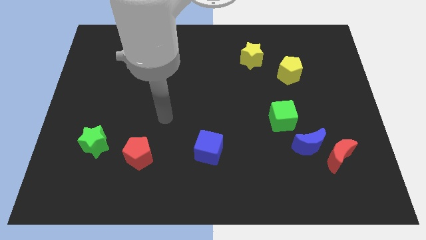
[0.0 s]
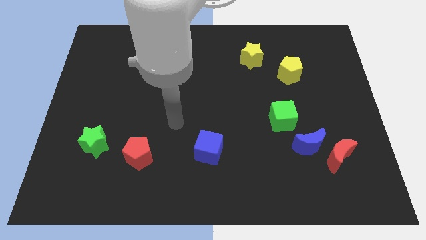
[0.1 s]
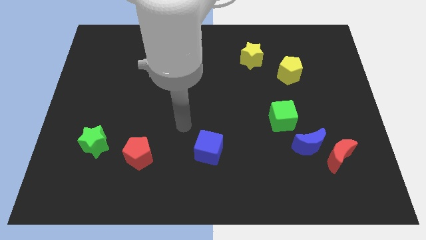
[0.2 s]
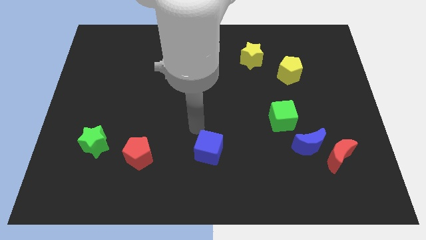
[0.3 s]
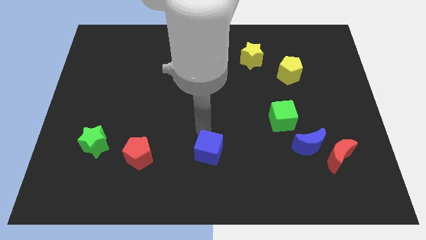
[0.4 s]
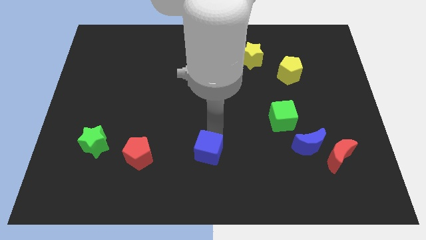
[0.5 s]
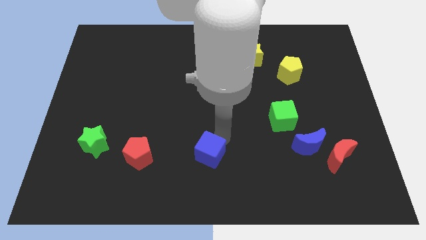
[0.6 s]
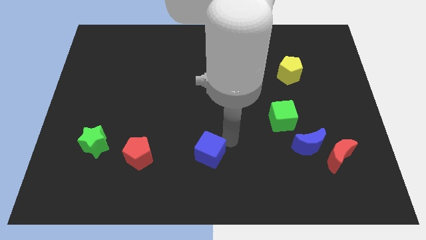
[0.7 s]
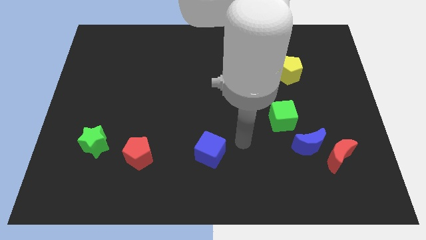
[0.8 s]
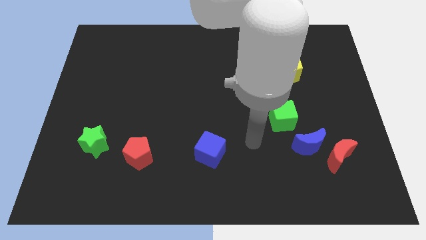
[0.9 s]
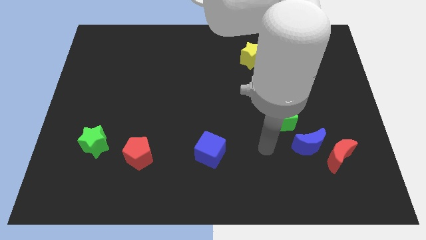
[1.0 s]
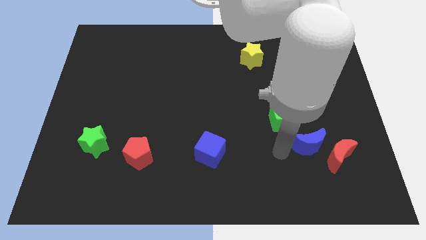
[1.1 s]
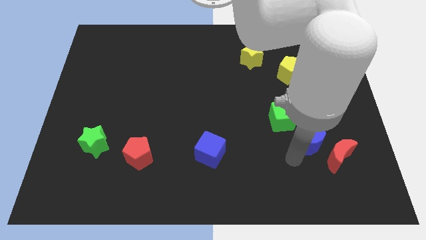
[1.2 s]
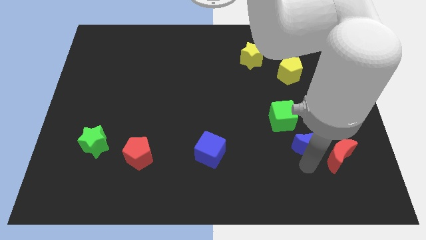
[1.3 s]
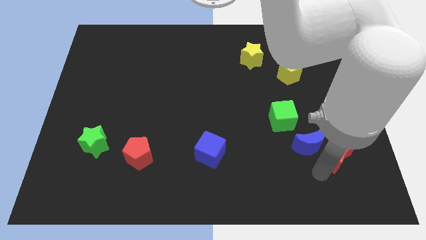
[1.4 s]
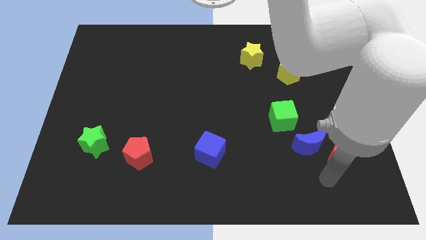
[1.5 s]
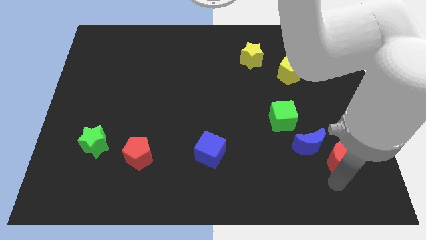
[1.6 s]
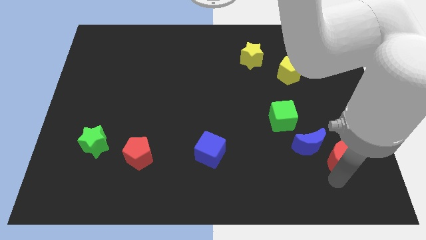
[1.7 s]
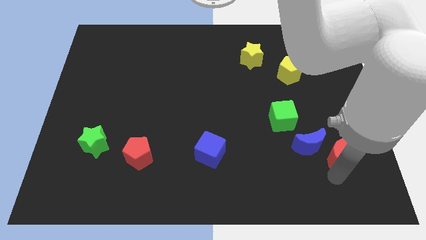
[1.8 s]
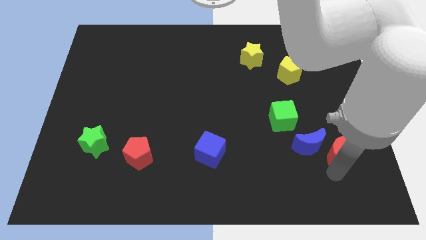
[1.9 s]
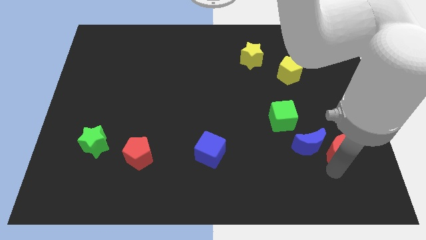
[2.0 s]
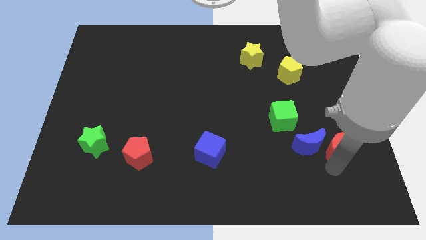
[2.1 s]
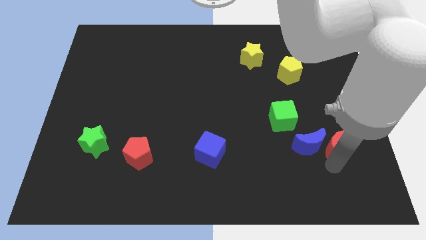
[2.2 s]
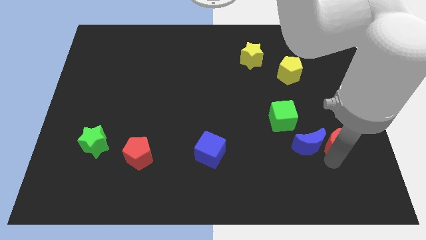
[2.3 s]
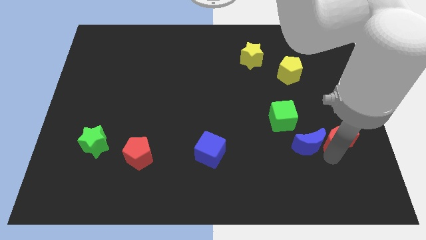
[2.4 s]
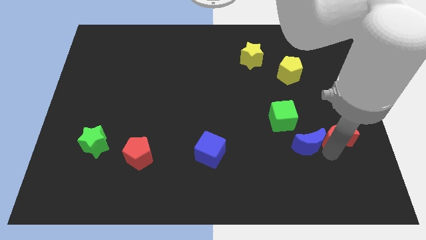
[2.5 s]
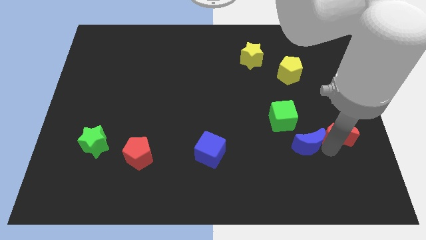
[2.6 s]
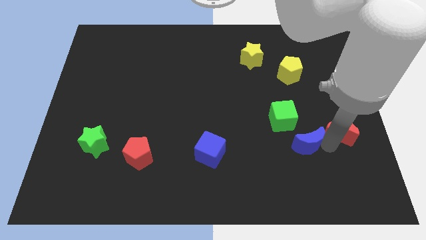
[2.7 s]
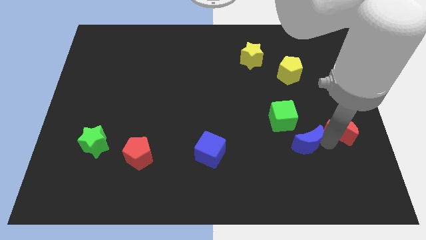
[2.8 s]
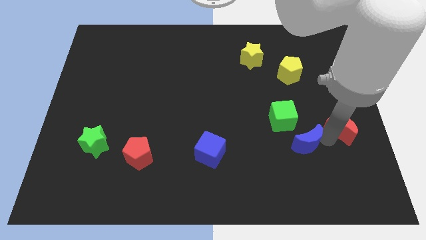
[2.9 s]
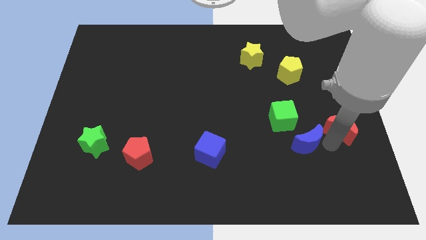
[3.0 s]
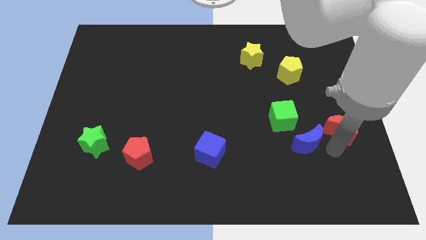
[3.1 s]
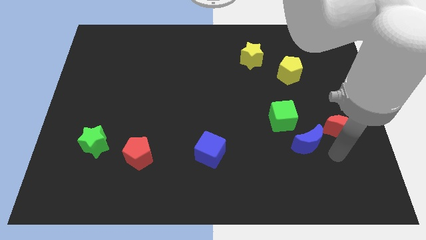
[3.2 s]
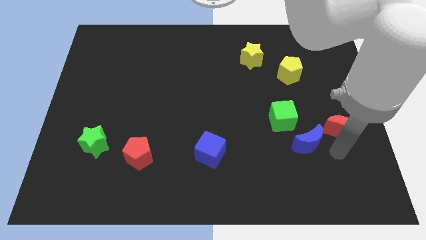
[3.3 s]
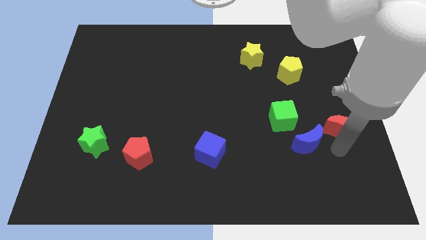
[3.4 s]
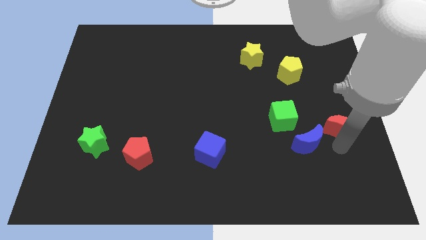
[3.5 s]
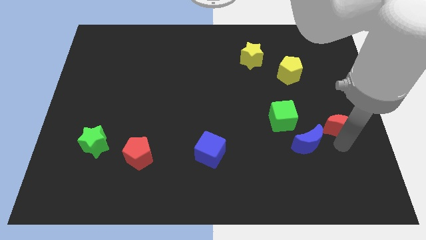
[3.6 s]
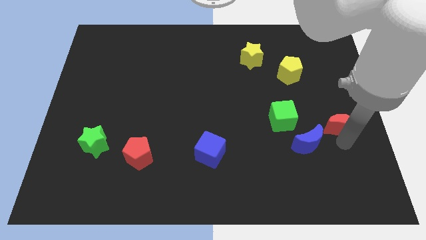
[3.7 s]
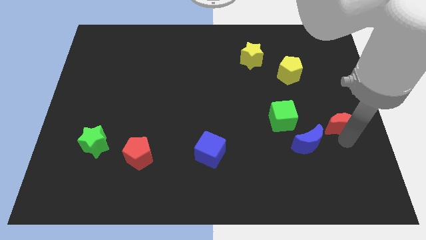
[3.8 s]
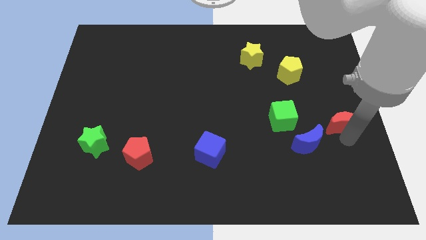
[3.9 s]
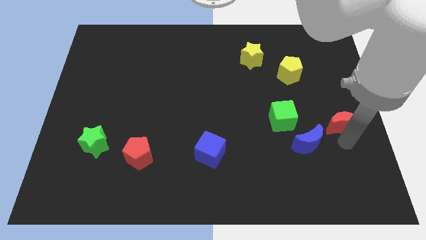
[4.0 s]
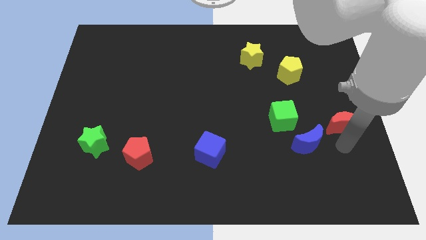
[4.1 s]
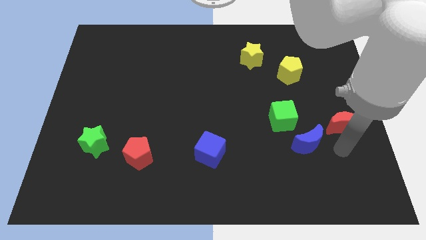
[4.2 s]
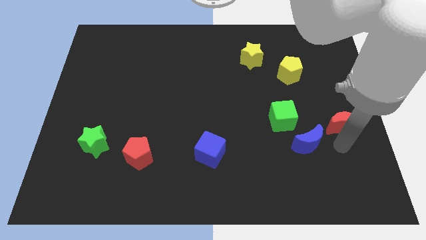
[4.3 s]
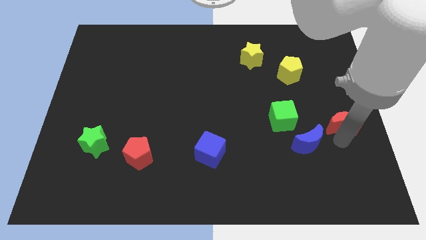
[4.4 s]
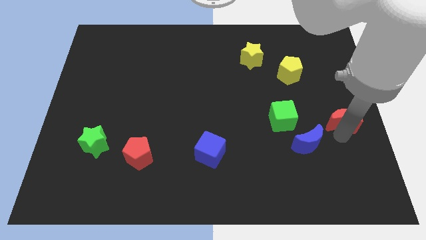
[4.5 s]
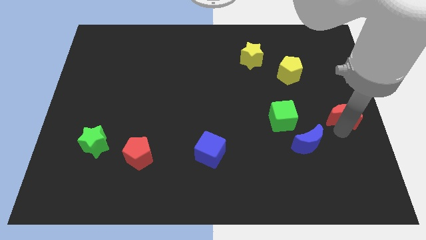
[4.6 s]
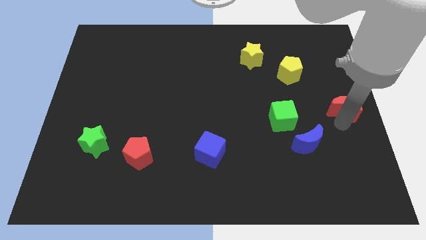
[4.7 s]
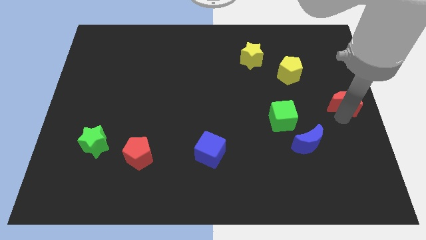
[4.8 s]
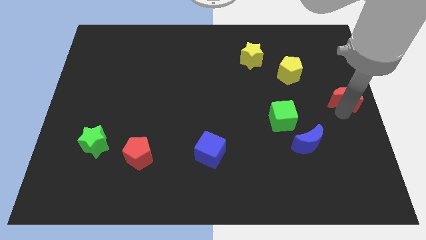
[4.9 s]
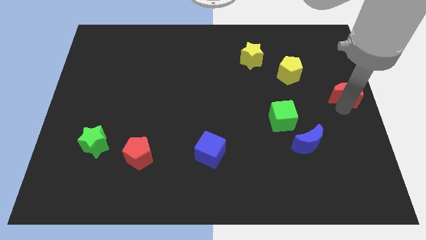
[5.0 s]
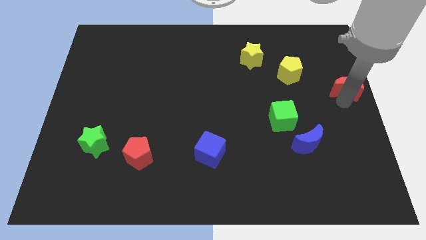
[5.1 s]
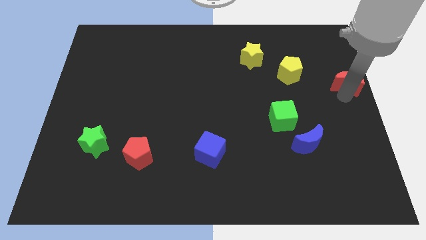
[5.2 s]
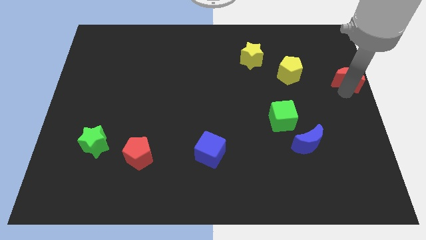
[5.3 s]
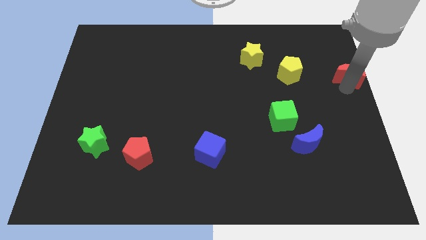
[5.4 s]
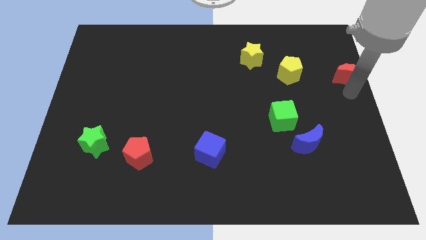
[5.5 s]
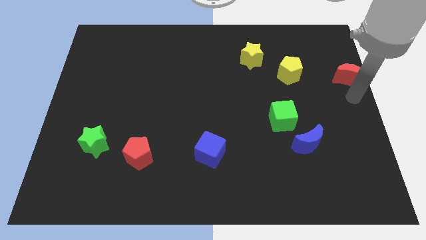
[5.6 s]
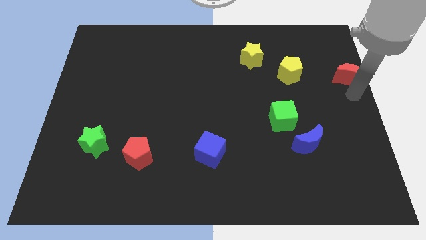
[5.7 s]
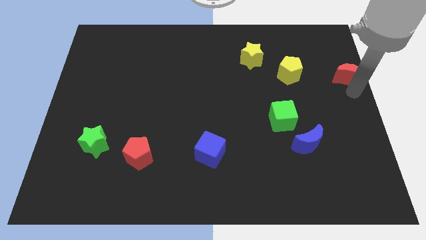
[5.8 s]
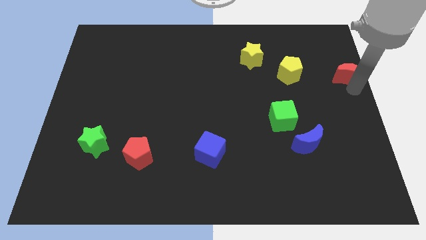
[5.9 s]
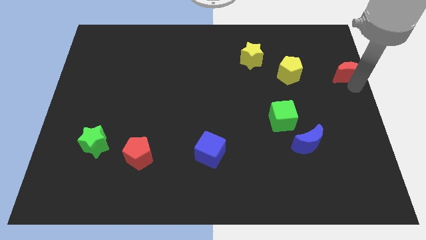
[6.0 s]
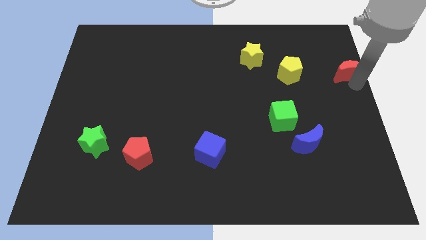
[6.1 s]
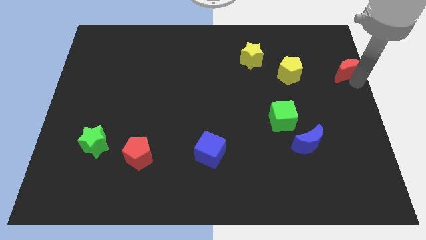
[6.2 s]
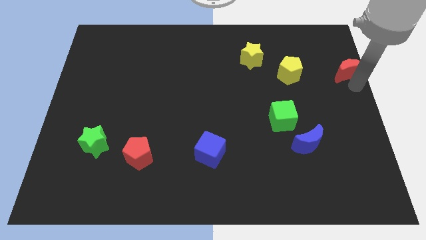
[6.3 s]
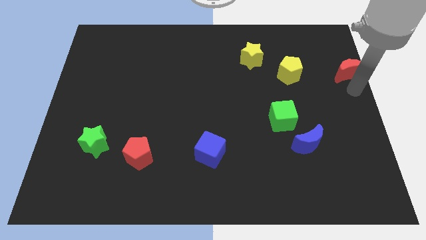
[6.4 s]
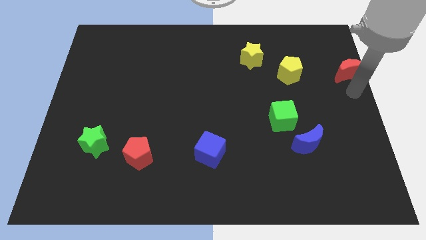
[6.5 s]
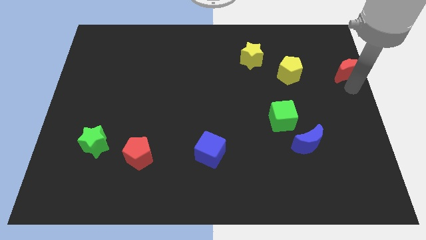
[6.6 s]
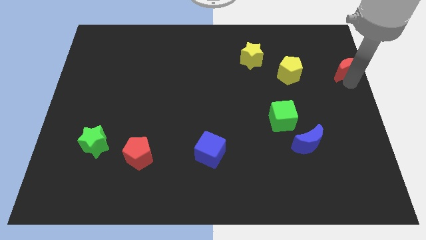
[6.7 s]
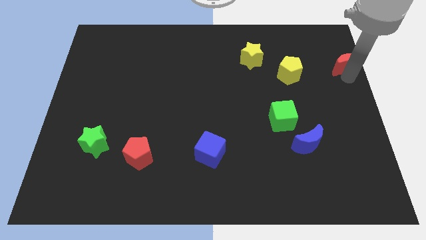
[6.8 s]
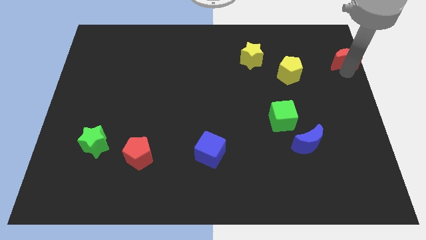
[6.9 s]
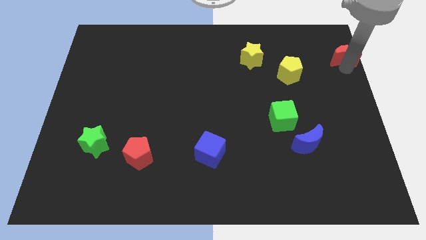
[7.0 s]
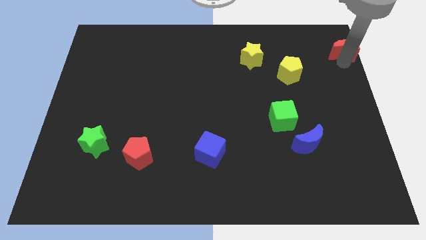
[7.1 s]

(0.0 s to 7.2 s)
push the red moon to the upper right corner
